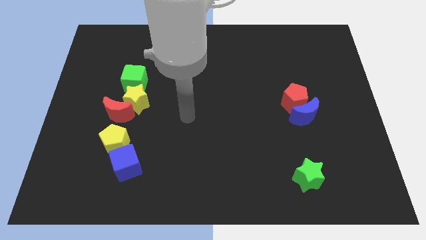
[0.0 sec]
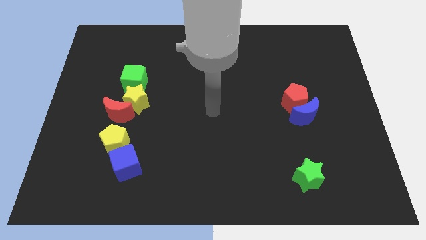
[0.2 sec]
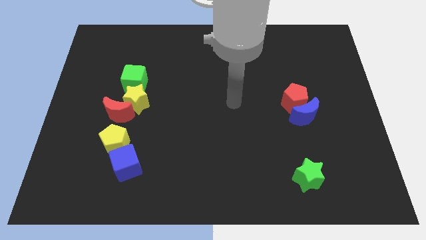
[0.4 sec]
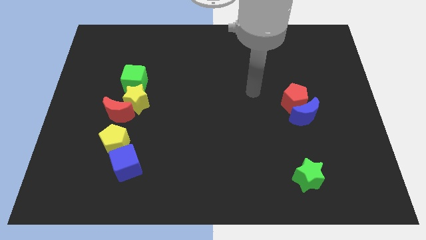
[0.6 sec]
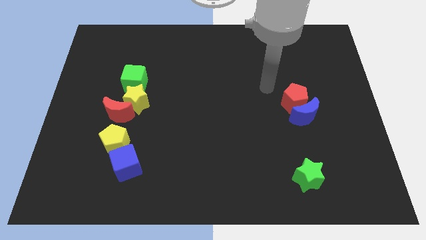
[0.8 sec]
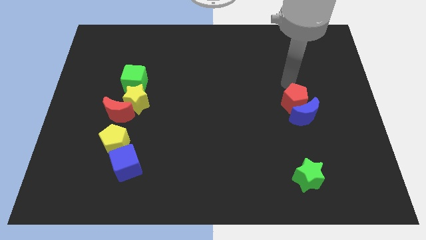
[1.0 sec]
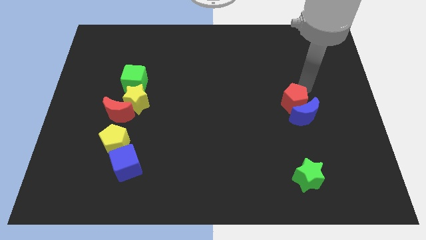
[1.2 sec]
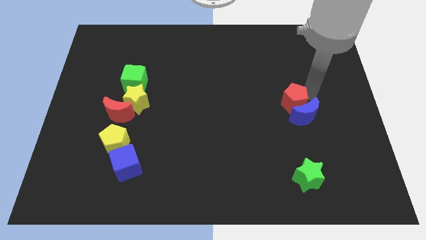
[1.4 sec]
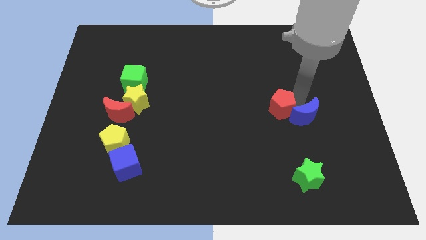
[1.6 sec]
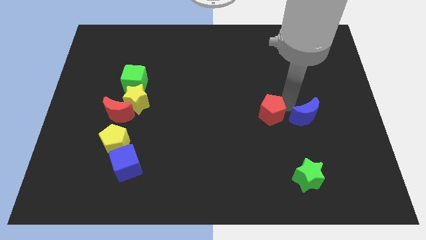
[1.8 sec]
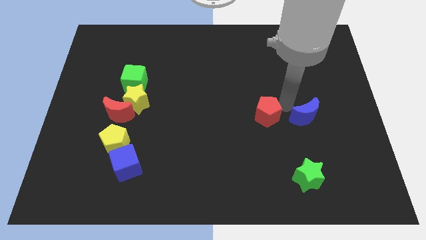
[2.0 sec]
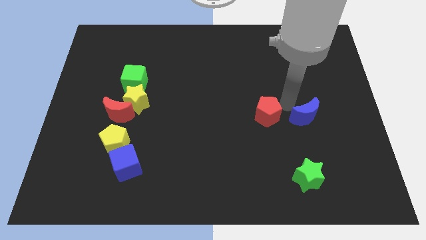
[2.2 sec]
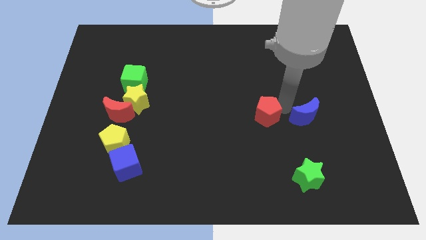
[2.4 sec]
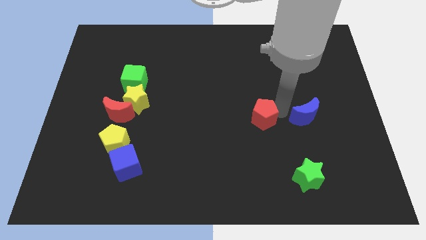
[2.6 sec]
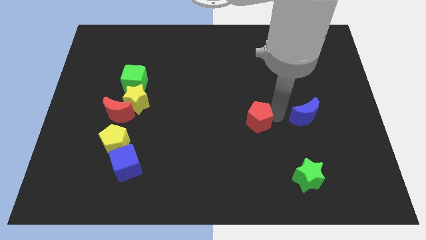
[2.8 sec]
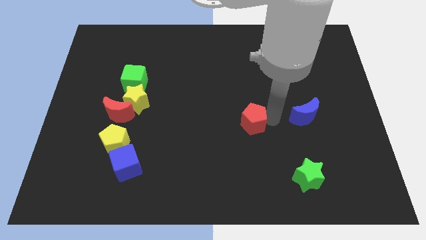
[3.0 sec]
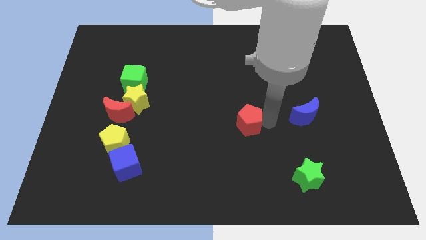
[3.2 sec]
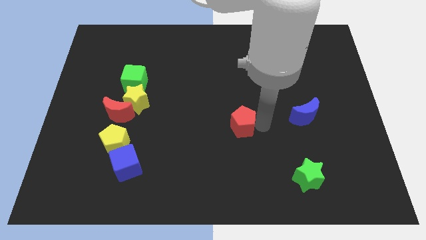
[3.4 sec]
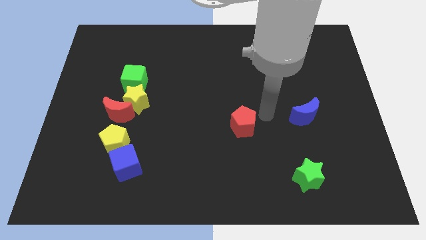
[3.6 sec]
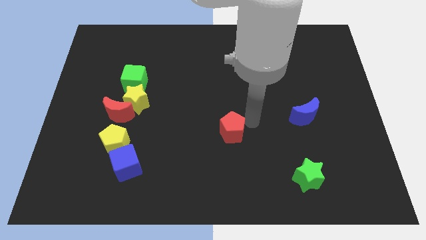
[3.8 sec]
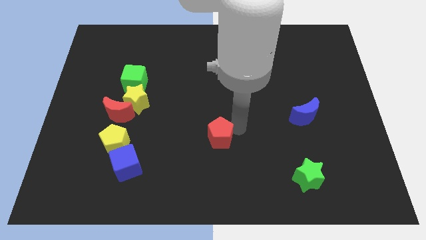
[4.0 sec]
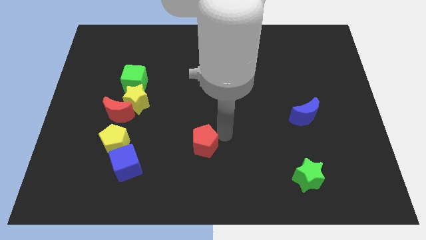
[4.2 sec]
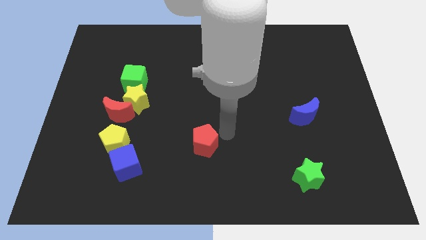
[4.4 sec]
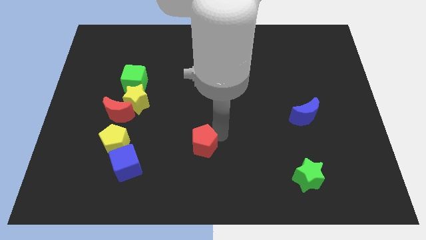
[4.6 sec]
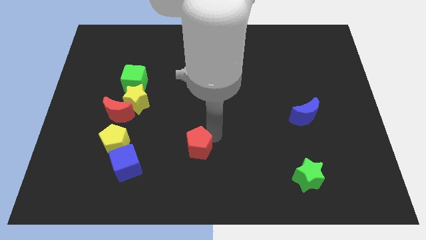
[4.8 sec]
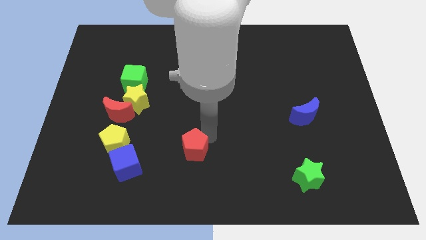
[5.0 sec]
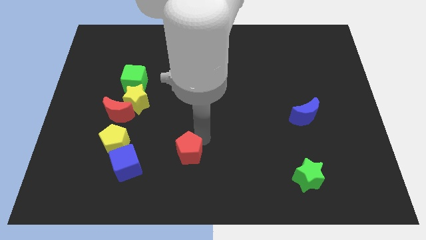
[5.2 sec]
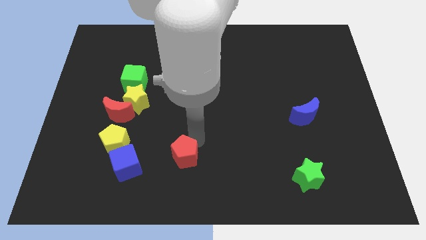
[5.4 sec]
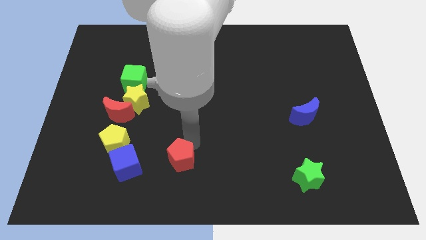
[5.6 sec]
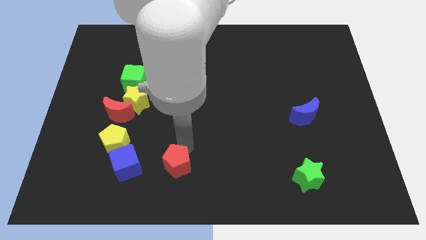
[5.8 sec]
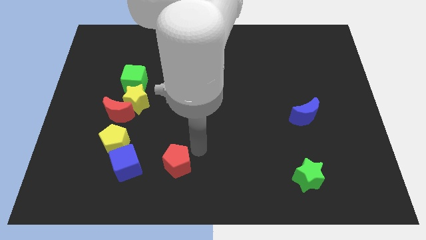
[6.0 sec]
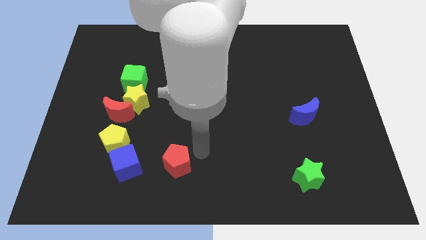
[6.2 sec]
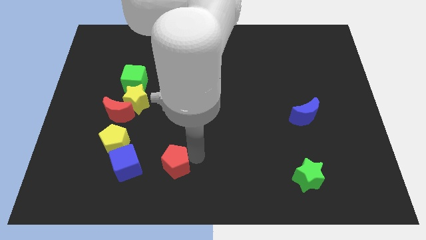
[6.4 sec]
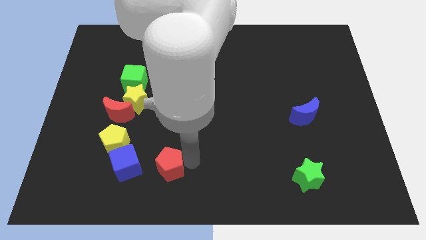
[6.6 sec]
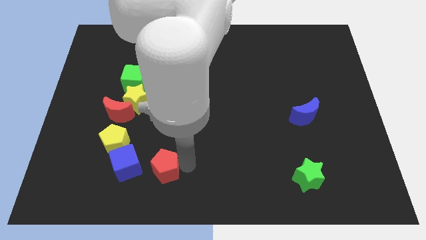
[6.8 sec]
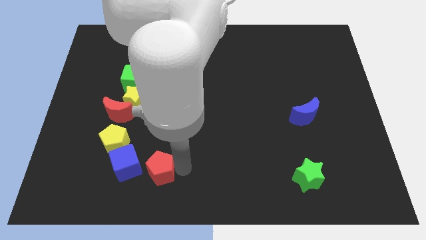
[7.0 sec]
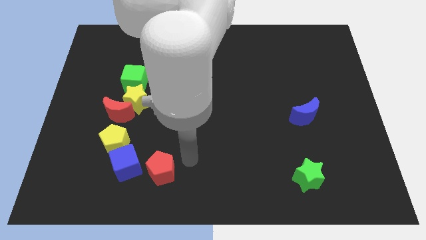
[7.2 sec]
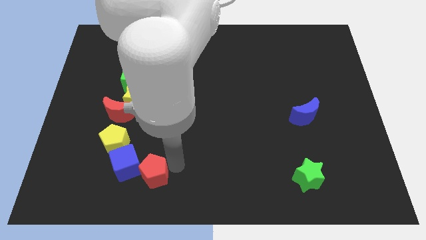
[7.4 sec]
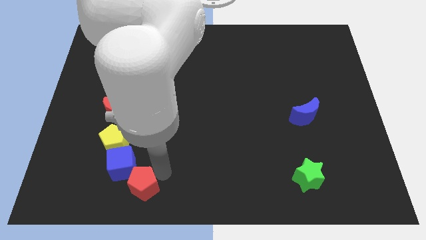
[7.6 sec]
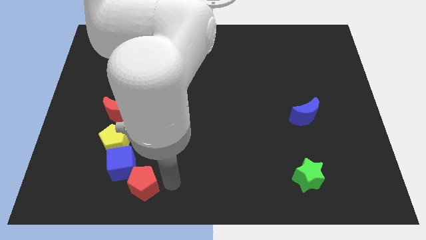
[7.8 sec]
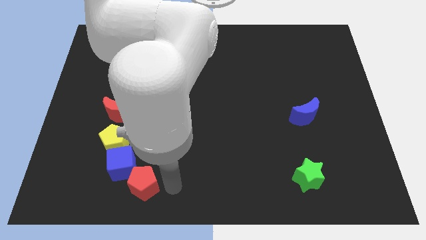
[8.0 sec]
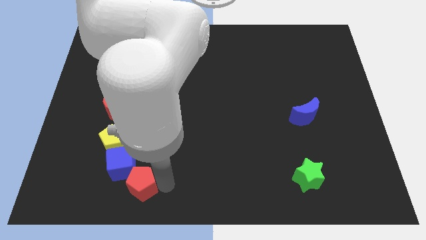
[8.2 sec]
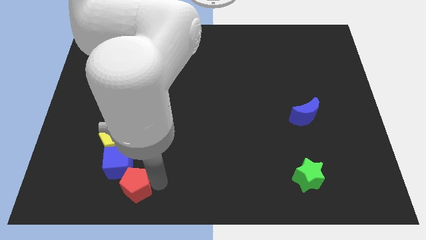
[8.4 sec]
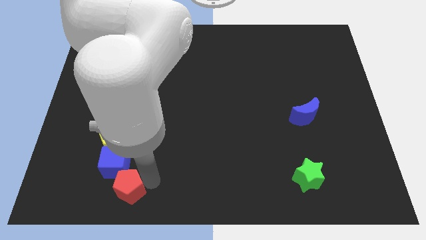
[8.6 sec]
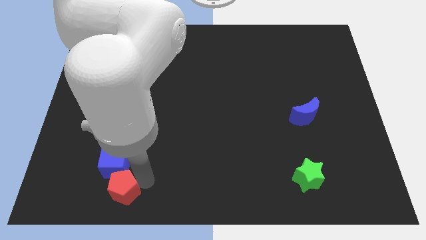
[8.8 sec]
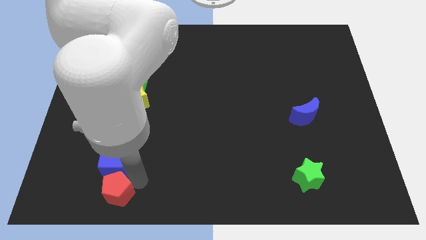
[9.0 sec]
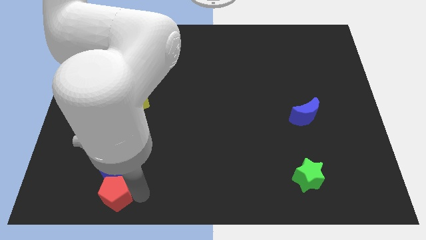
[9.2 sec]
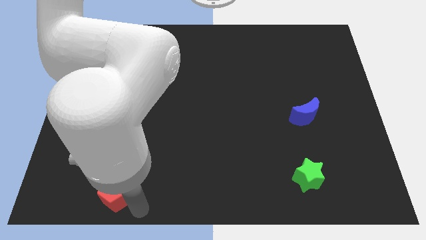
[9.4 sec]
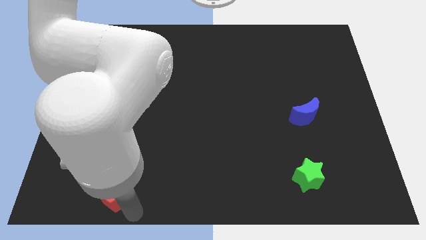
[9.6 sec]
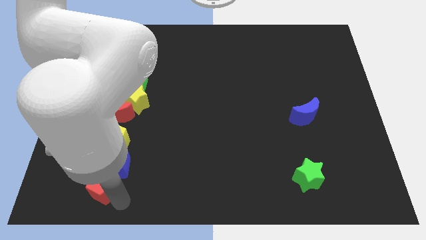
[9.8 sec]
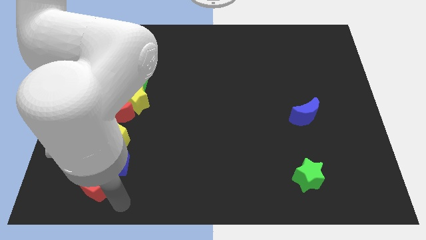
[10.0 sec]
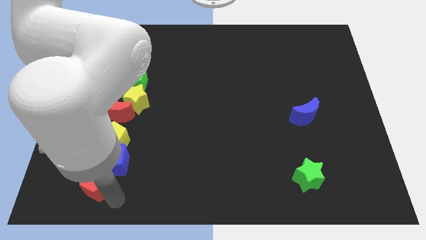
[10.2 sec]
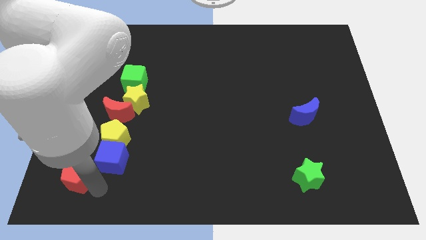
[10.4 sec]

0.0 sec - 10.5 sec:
push the red pentagon left of the blue cube

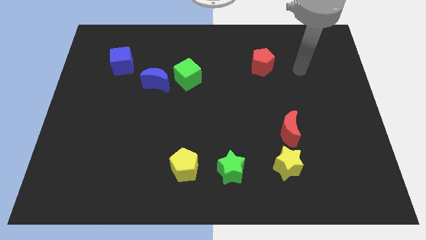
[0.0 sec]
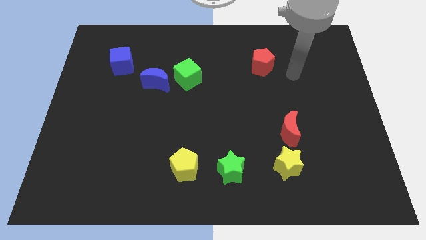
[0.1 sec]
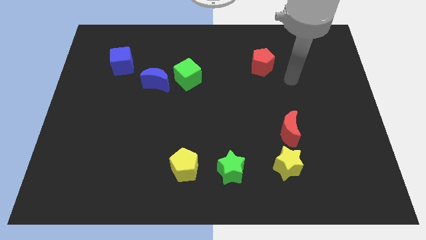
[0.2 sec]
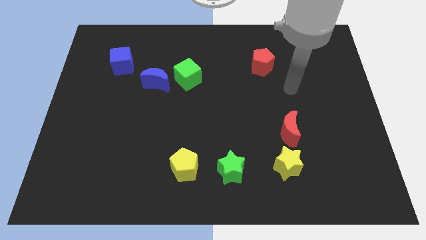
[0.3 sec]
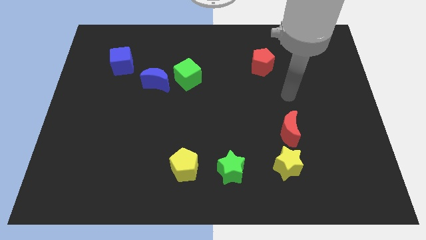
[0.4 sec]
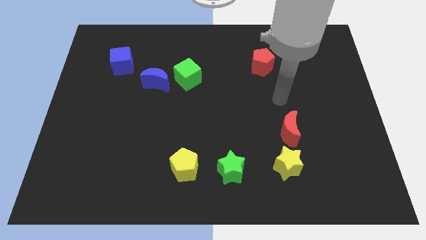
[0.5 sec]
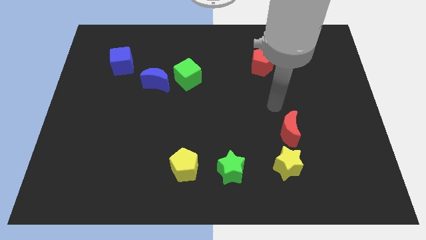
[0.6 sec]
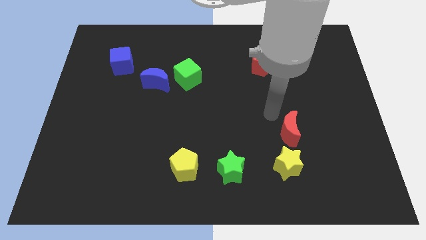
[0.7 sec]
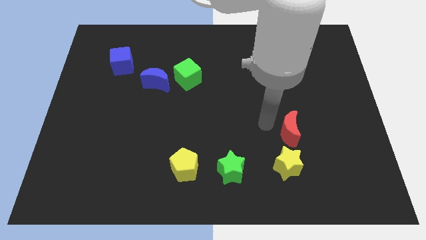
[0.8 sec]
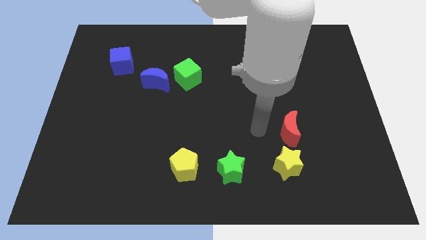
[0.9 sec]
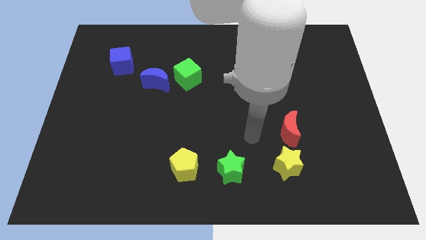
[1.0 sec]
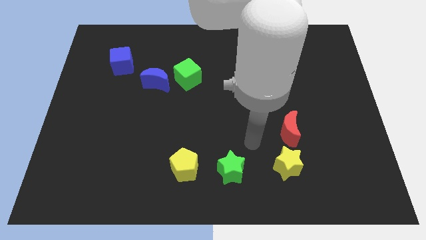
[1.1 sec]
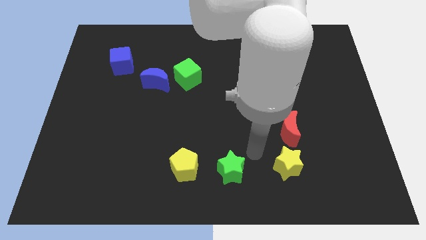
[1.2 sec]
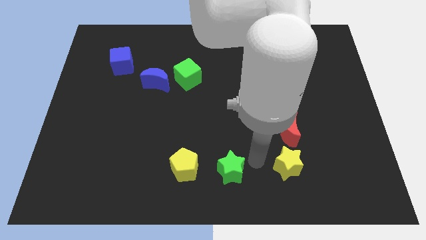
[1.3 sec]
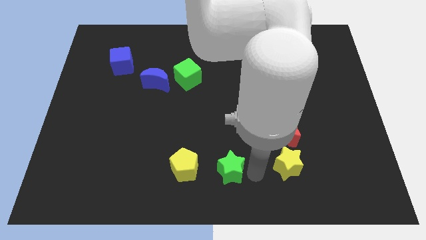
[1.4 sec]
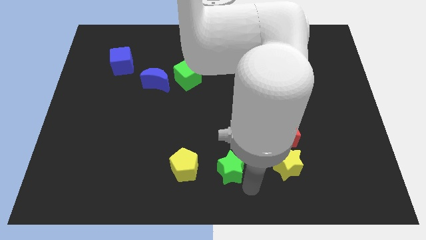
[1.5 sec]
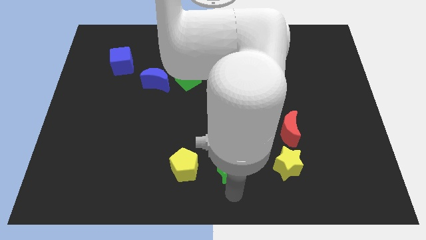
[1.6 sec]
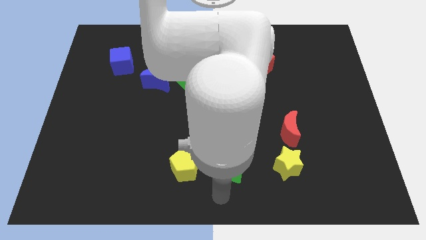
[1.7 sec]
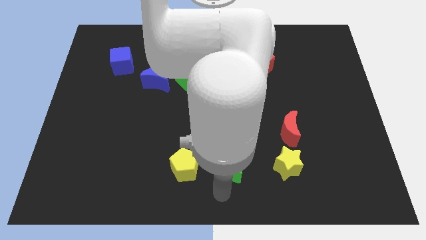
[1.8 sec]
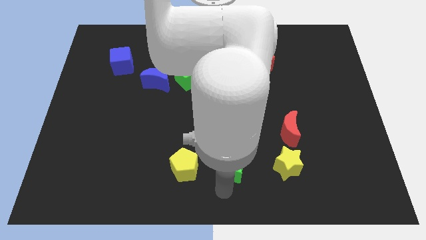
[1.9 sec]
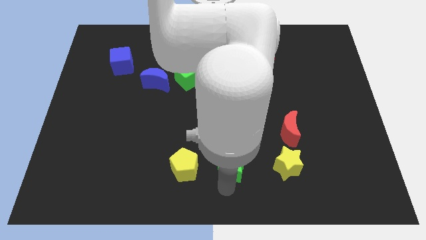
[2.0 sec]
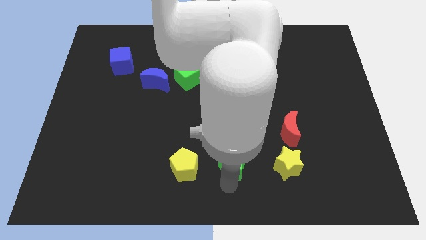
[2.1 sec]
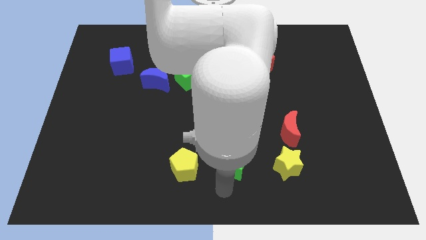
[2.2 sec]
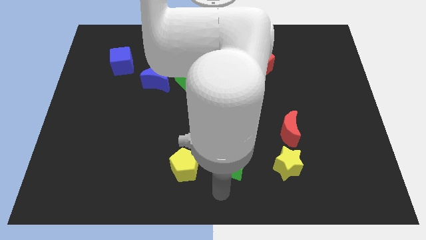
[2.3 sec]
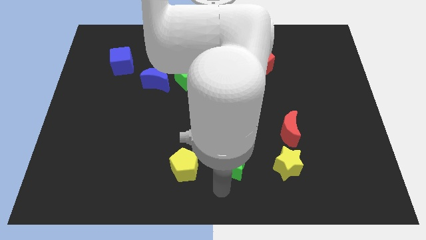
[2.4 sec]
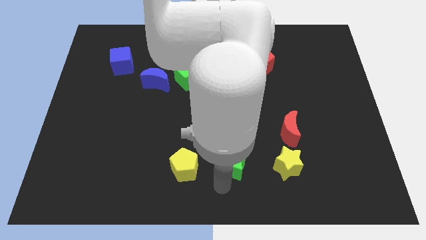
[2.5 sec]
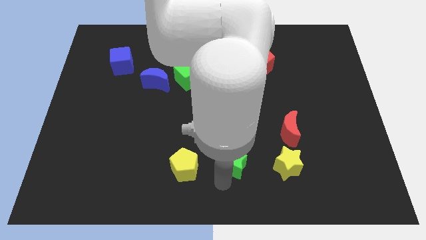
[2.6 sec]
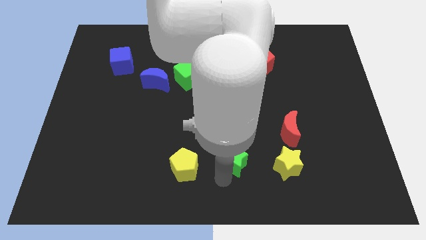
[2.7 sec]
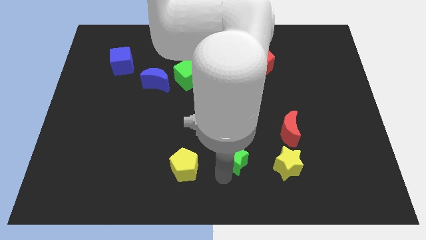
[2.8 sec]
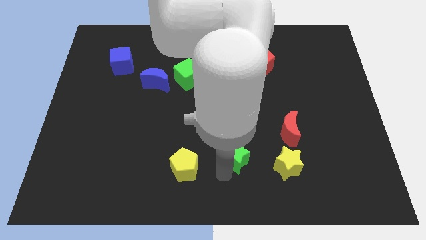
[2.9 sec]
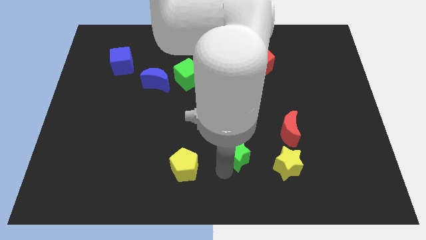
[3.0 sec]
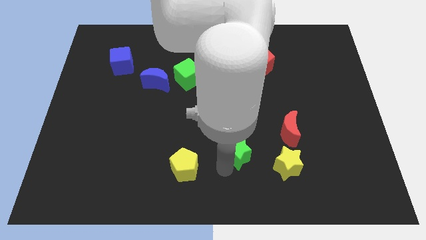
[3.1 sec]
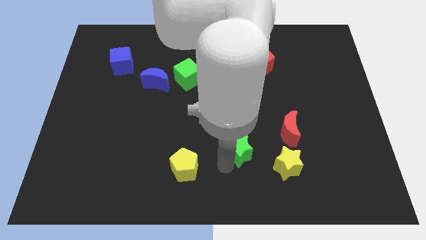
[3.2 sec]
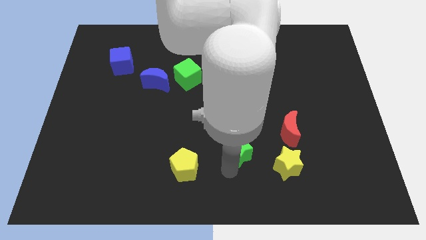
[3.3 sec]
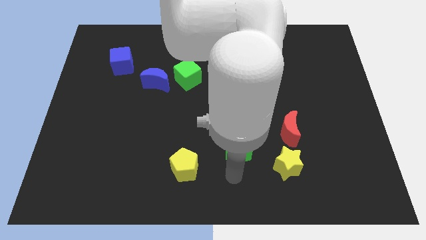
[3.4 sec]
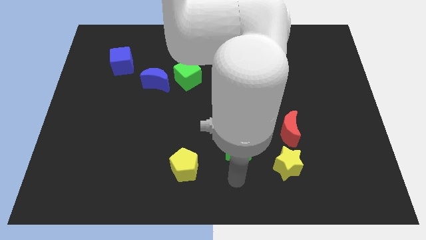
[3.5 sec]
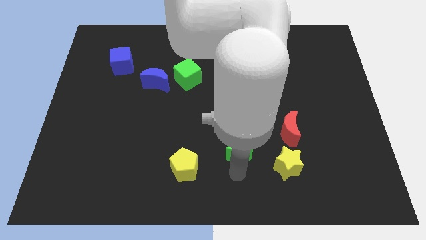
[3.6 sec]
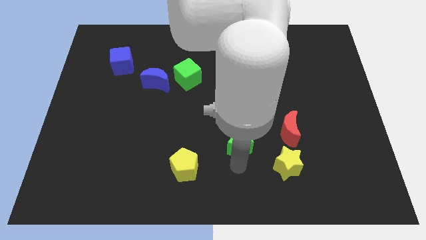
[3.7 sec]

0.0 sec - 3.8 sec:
move the green star just left of the red moon
